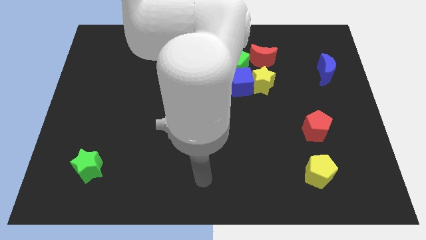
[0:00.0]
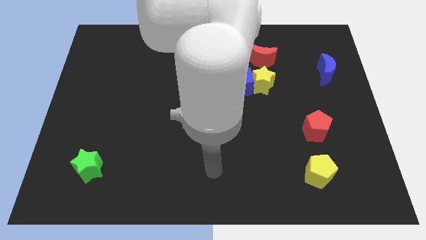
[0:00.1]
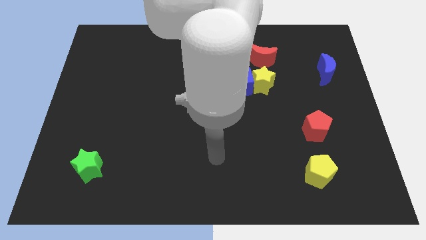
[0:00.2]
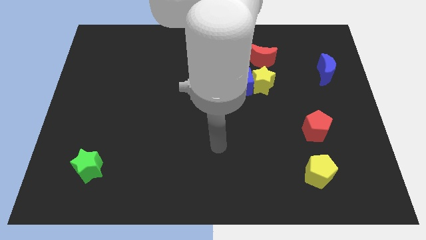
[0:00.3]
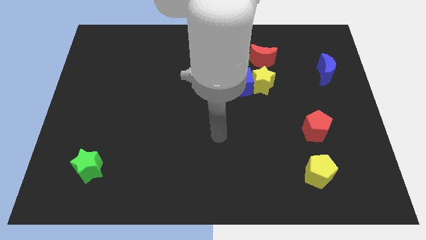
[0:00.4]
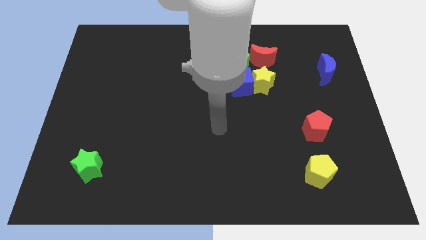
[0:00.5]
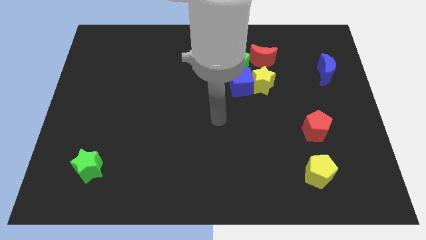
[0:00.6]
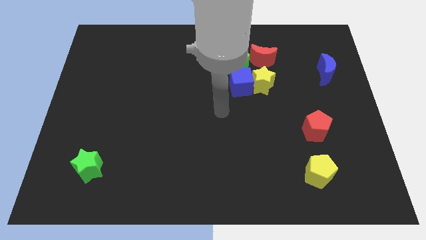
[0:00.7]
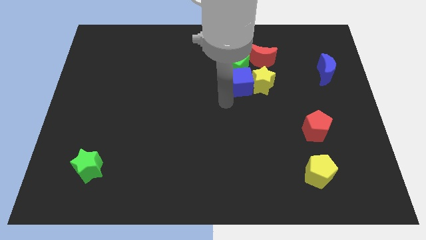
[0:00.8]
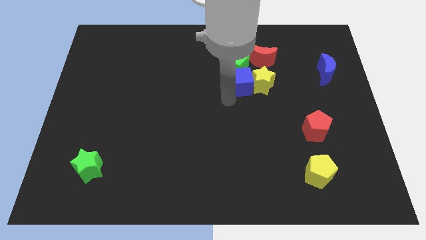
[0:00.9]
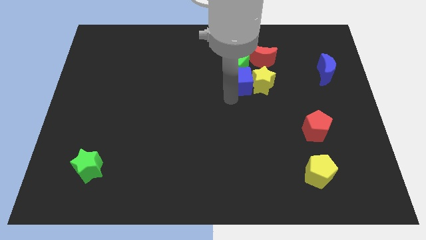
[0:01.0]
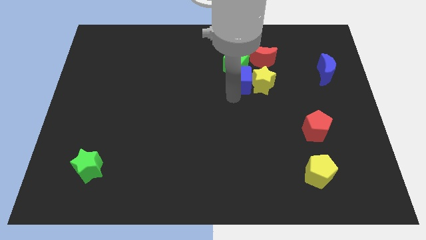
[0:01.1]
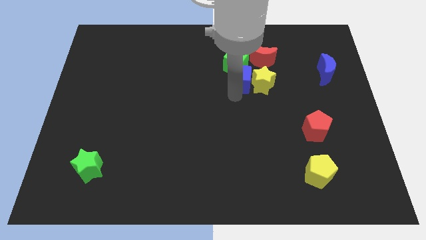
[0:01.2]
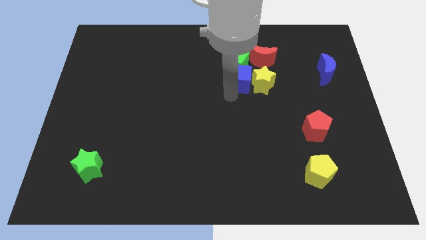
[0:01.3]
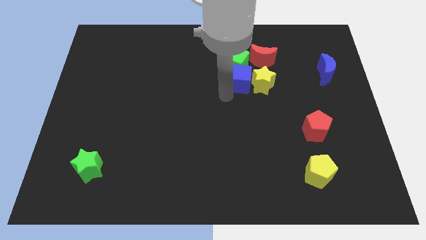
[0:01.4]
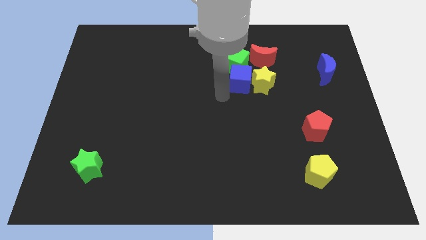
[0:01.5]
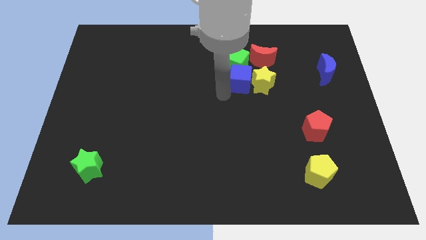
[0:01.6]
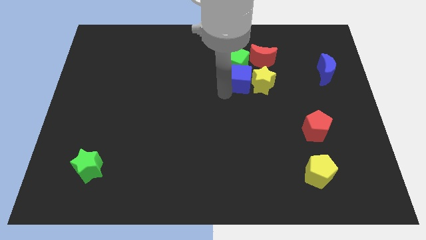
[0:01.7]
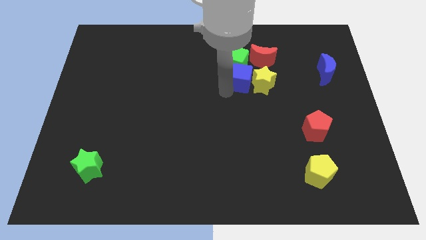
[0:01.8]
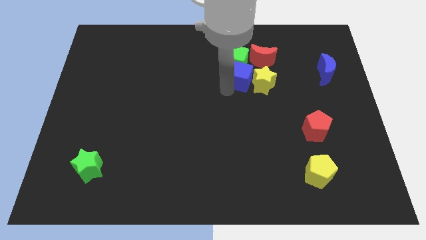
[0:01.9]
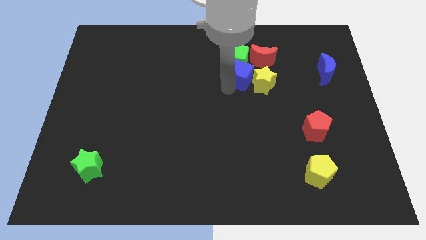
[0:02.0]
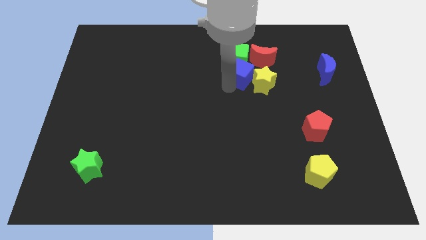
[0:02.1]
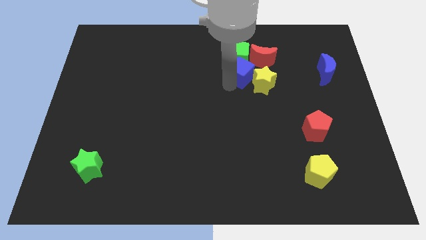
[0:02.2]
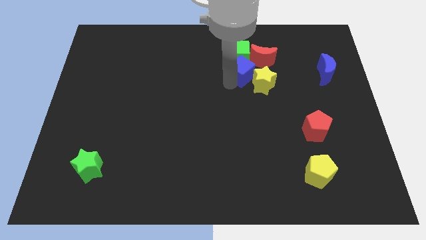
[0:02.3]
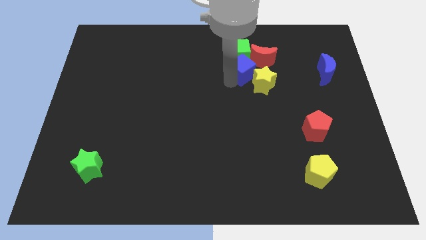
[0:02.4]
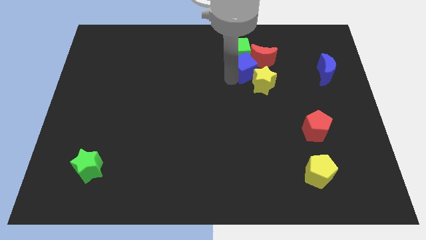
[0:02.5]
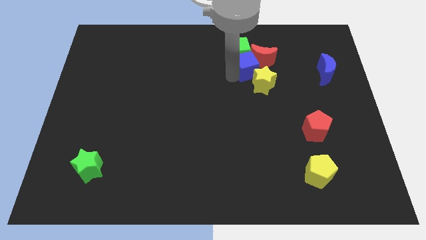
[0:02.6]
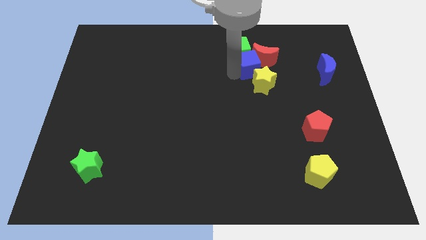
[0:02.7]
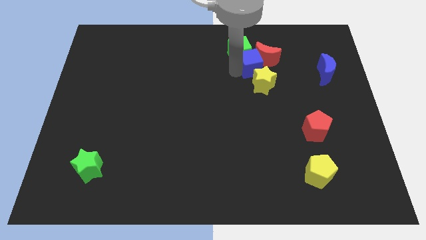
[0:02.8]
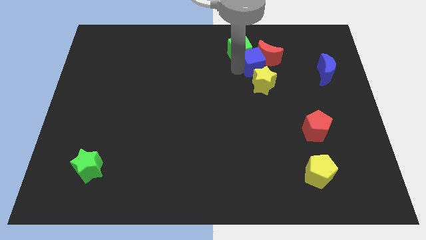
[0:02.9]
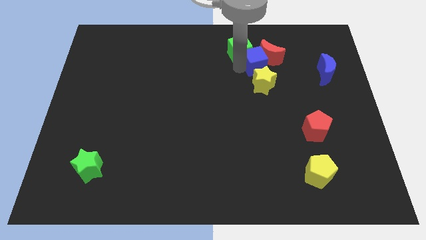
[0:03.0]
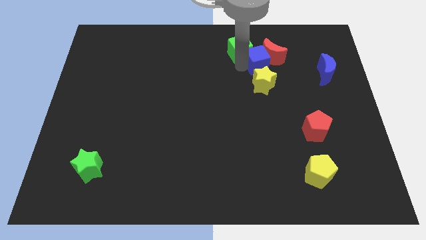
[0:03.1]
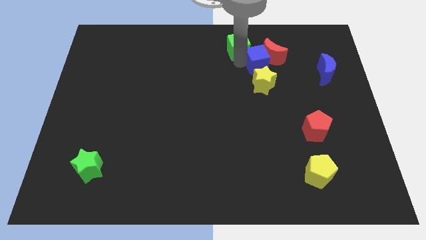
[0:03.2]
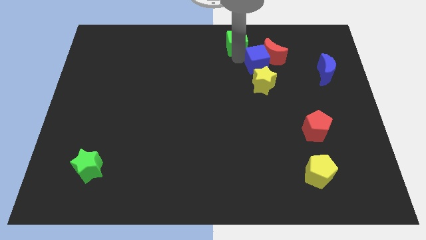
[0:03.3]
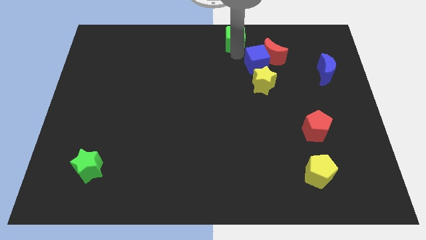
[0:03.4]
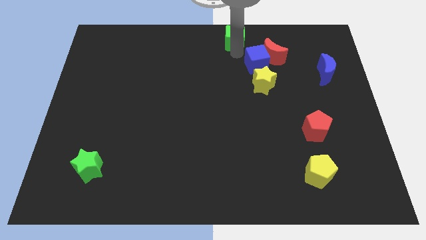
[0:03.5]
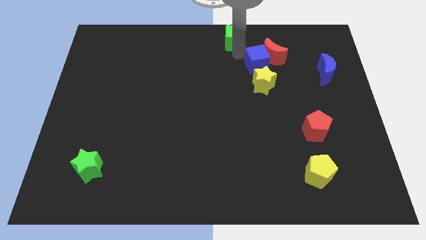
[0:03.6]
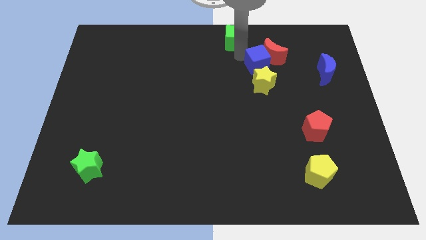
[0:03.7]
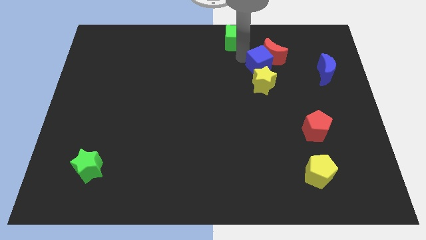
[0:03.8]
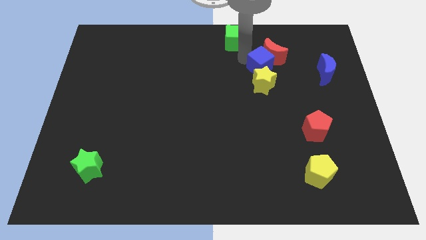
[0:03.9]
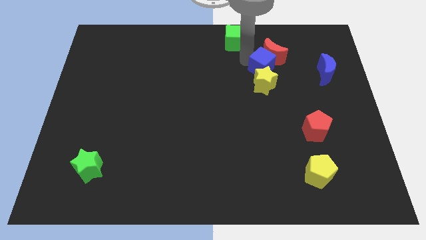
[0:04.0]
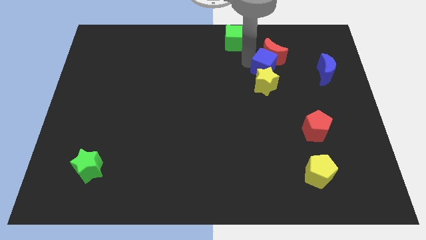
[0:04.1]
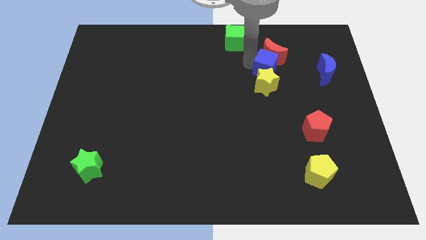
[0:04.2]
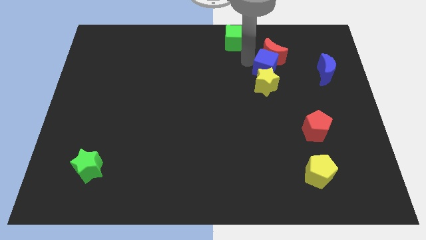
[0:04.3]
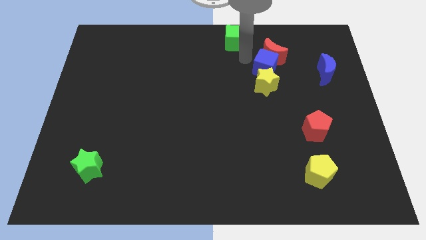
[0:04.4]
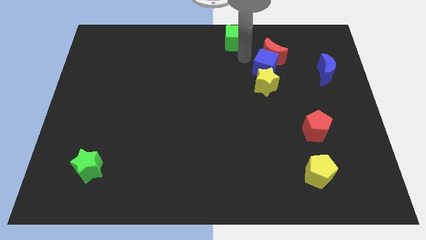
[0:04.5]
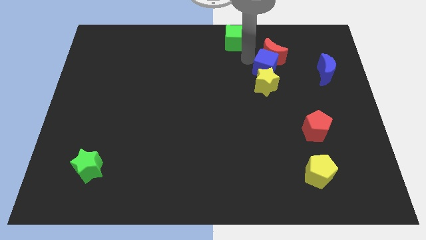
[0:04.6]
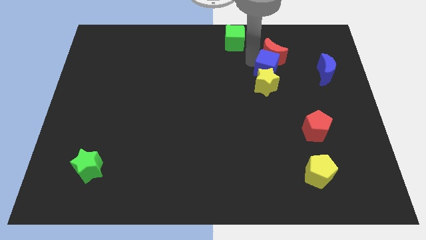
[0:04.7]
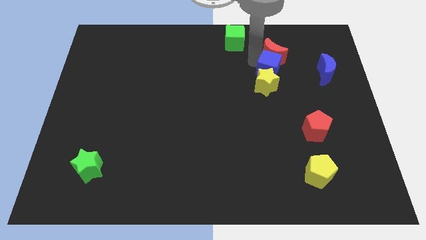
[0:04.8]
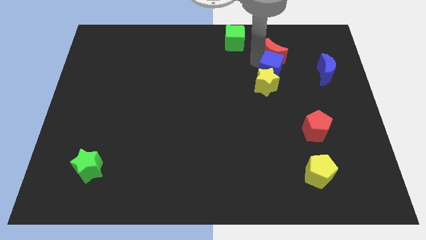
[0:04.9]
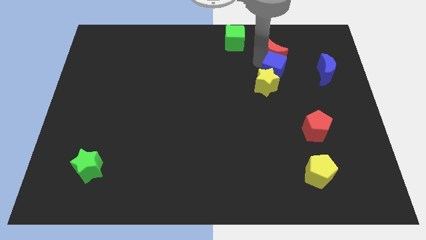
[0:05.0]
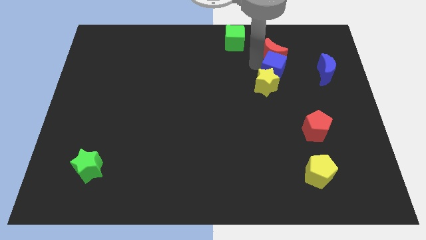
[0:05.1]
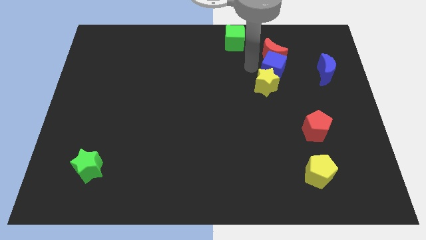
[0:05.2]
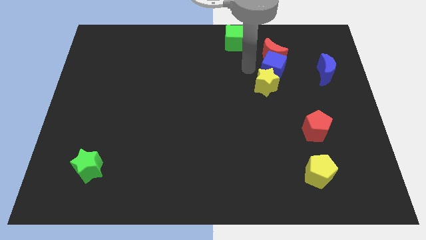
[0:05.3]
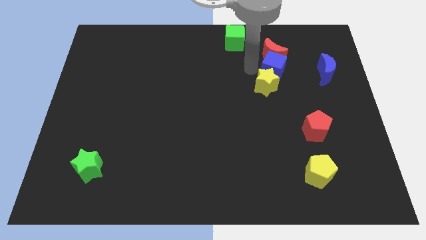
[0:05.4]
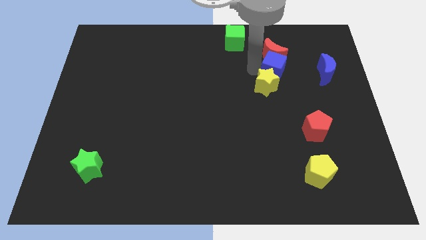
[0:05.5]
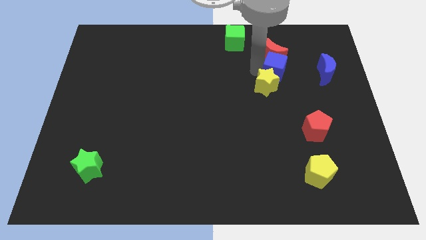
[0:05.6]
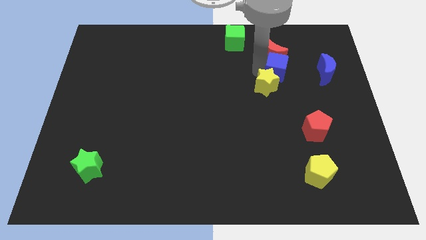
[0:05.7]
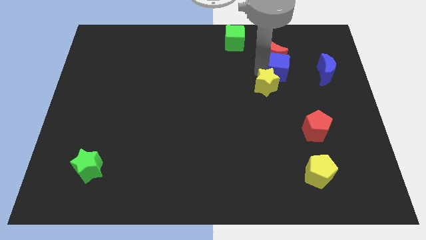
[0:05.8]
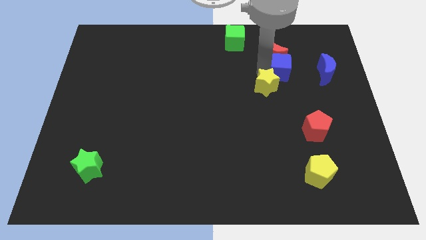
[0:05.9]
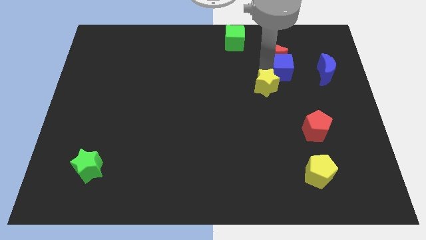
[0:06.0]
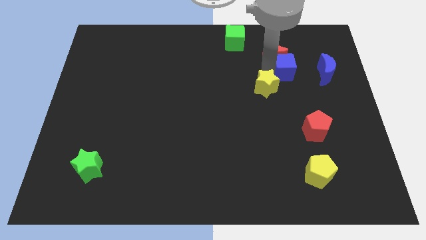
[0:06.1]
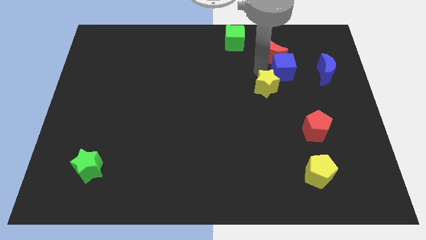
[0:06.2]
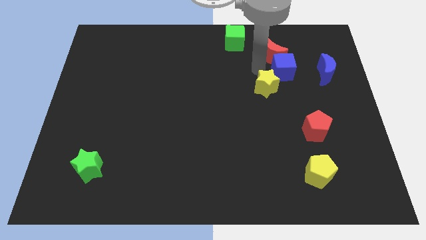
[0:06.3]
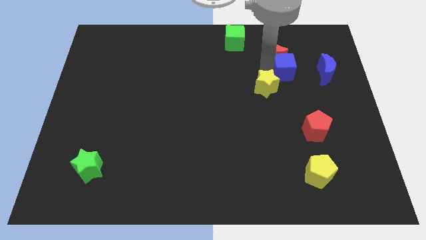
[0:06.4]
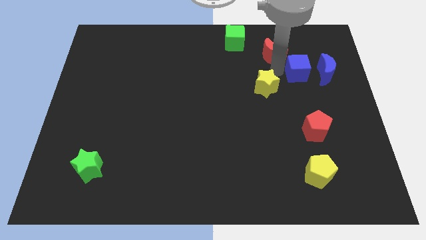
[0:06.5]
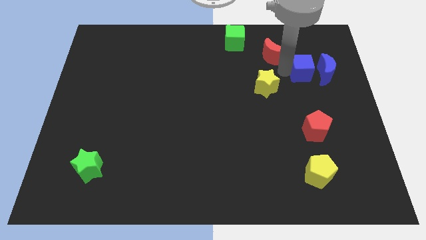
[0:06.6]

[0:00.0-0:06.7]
slide the blue cube next to the blue moon

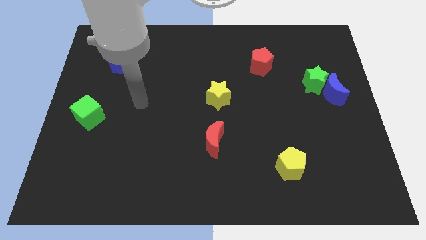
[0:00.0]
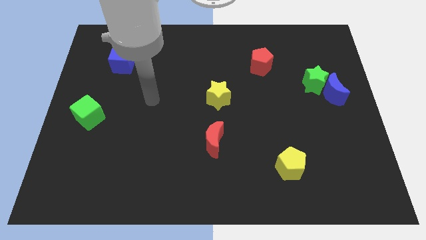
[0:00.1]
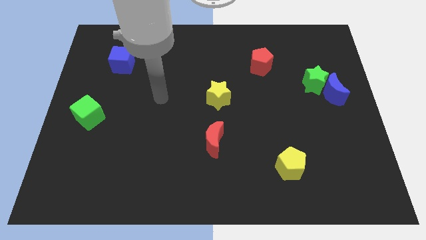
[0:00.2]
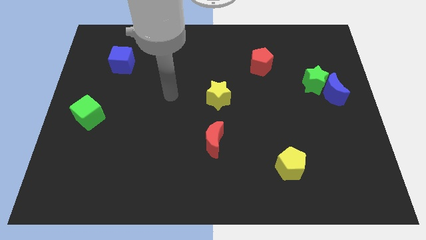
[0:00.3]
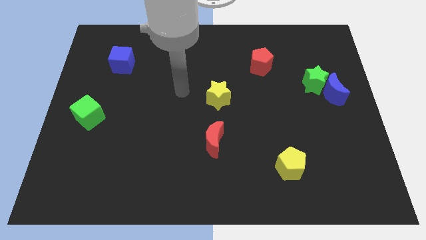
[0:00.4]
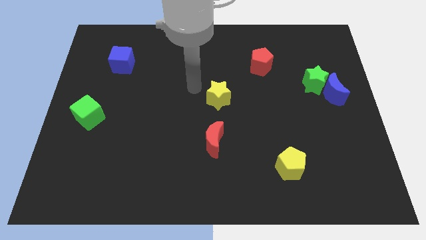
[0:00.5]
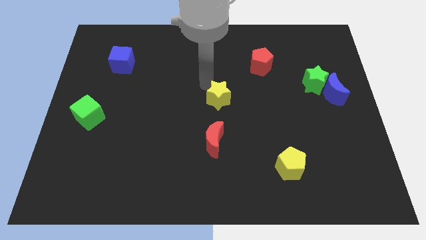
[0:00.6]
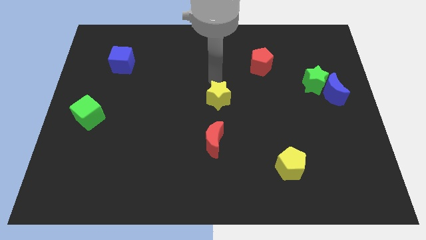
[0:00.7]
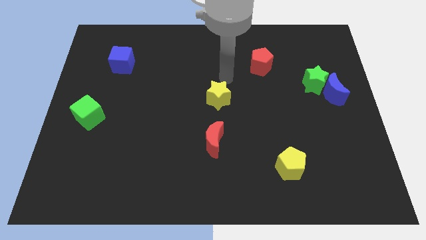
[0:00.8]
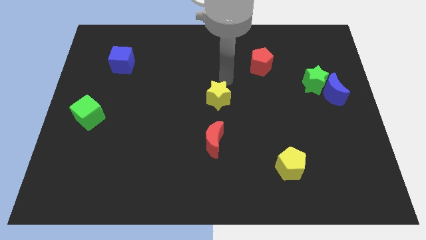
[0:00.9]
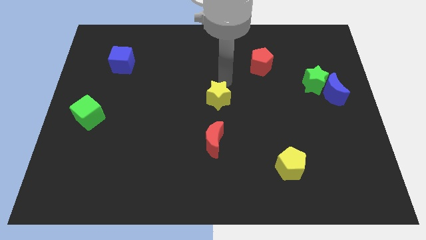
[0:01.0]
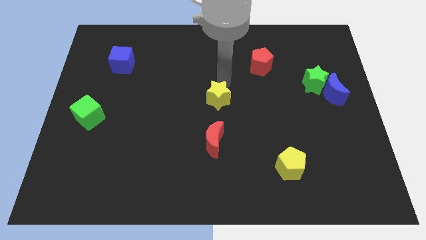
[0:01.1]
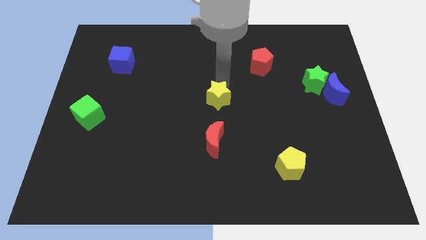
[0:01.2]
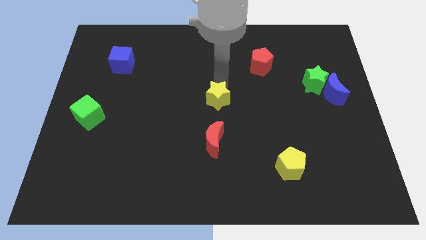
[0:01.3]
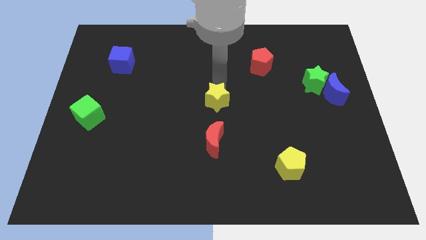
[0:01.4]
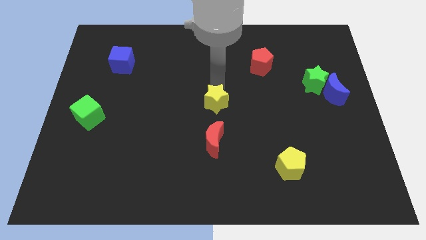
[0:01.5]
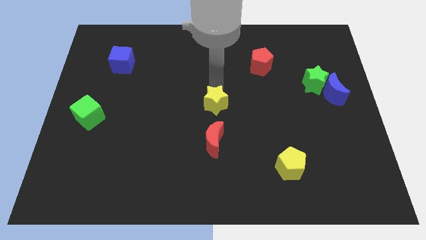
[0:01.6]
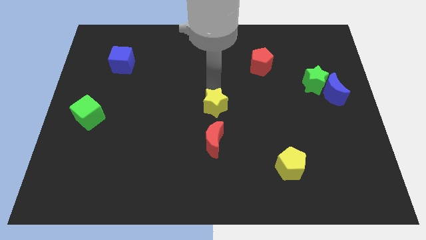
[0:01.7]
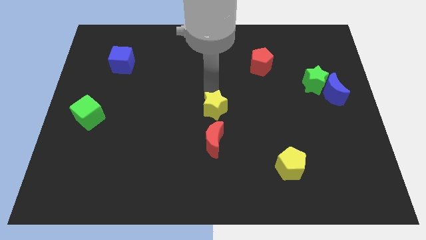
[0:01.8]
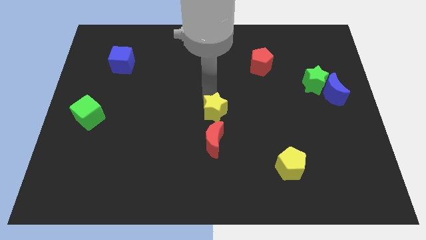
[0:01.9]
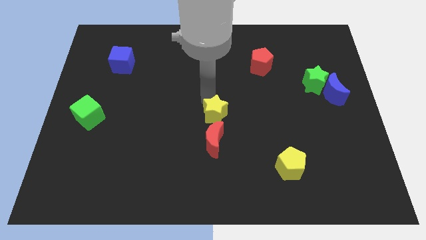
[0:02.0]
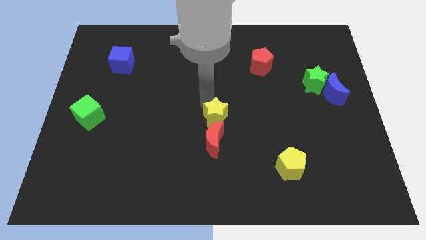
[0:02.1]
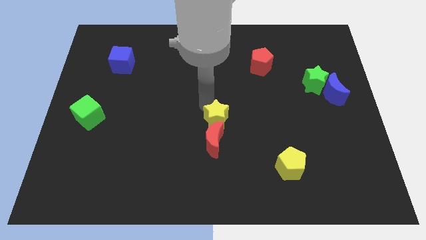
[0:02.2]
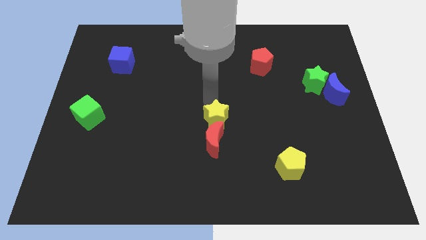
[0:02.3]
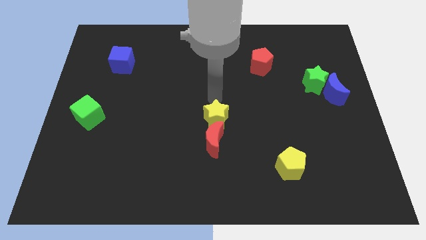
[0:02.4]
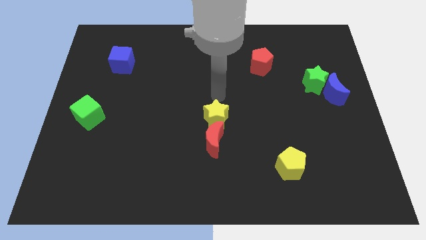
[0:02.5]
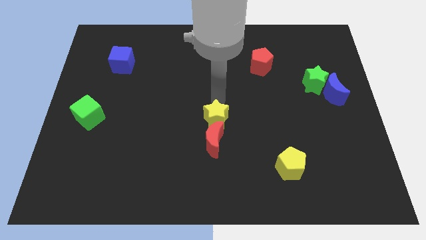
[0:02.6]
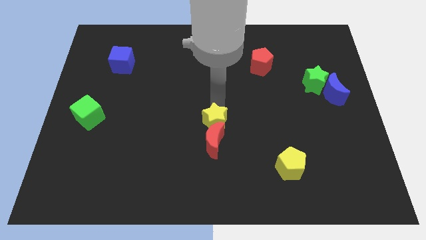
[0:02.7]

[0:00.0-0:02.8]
slide the yellow star to the red moon
